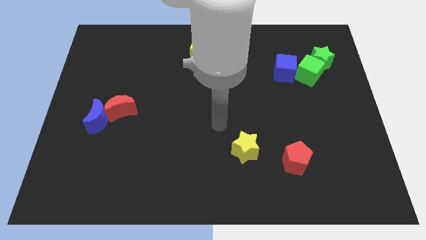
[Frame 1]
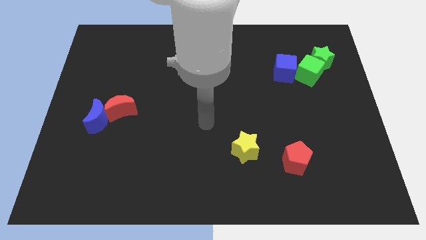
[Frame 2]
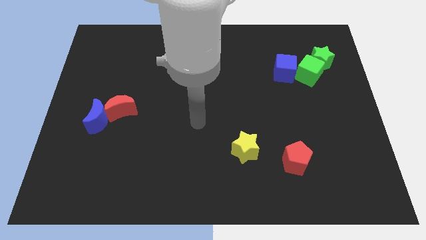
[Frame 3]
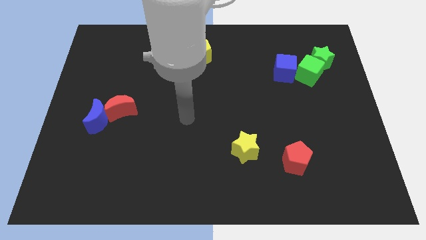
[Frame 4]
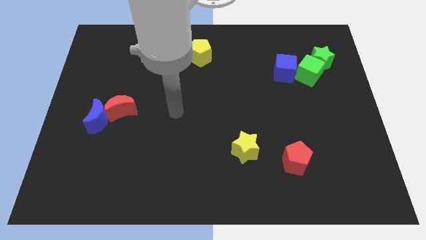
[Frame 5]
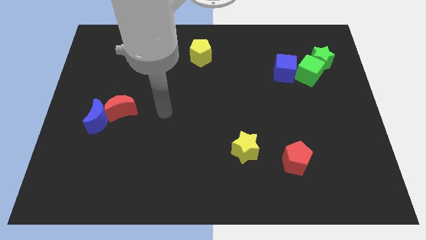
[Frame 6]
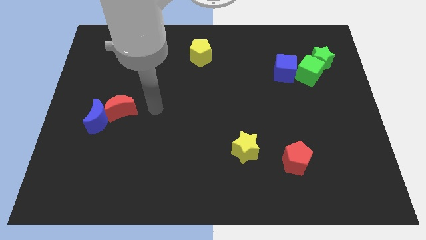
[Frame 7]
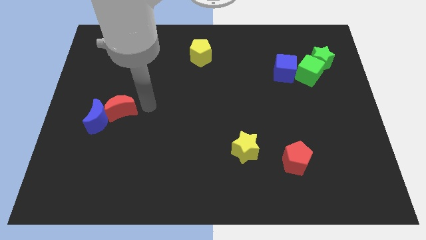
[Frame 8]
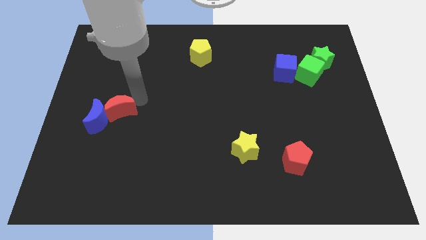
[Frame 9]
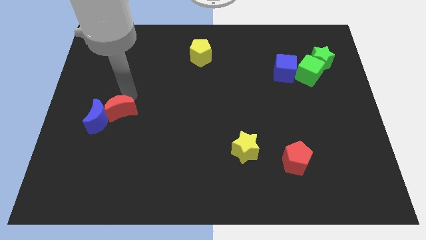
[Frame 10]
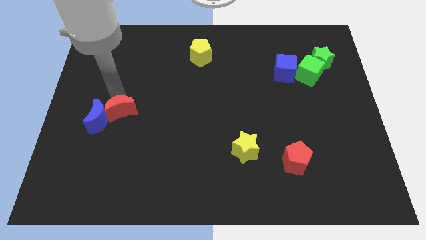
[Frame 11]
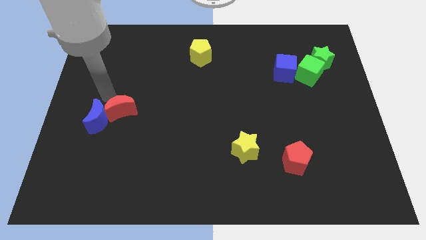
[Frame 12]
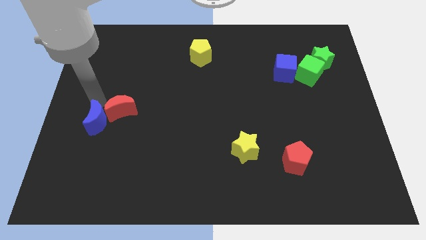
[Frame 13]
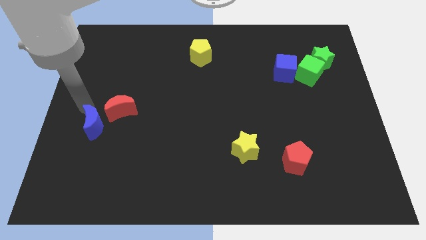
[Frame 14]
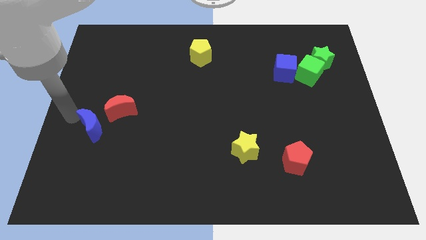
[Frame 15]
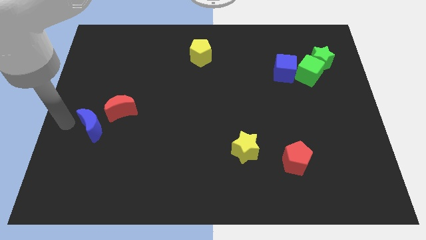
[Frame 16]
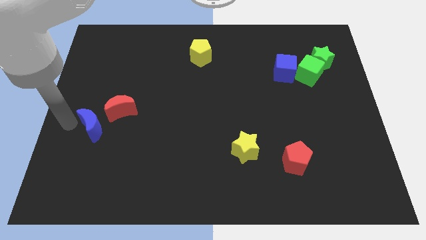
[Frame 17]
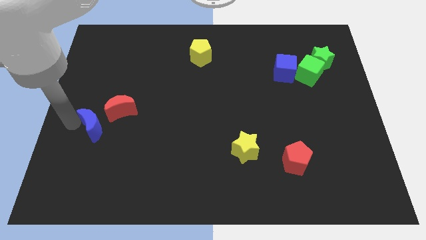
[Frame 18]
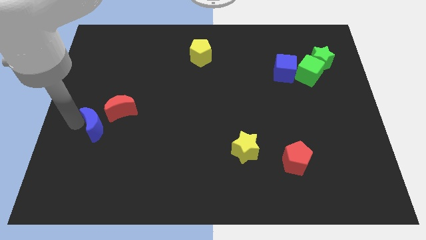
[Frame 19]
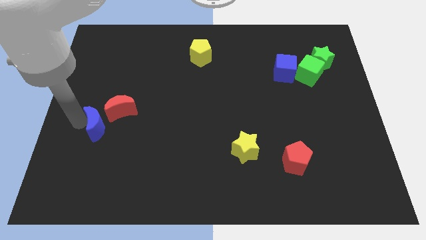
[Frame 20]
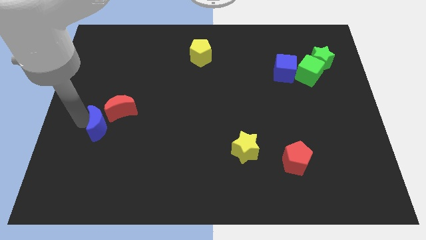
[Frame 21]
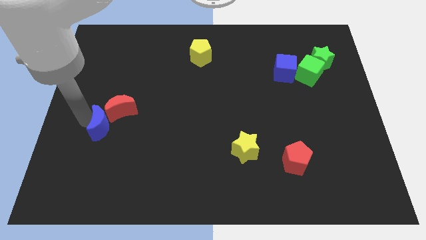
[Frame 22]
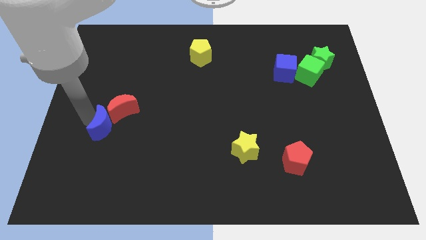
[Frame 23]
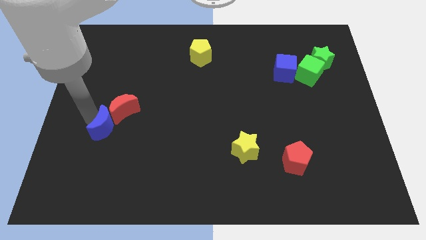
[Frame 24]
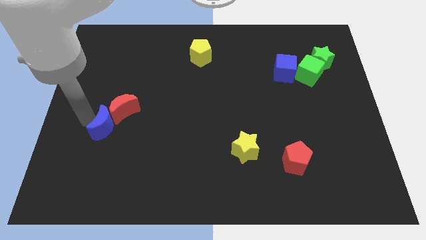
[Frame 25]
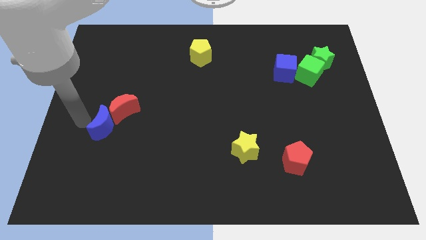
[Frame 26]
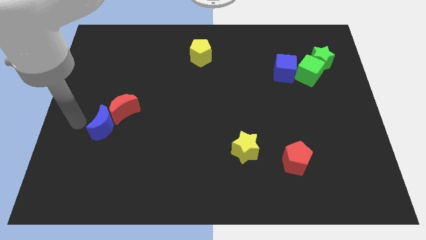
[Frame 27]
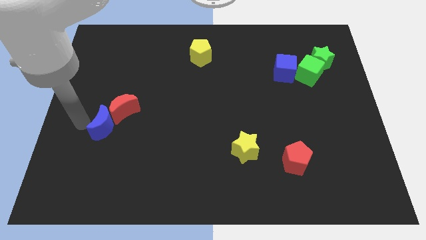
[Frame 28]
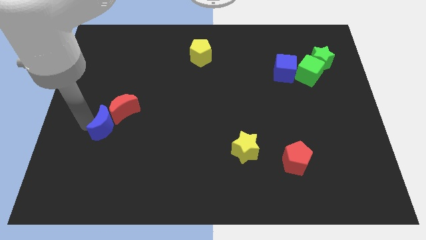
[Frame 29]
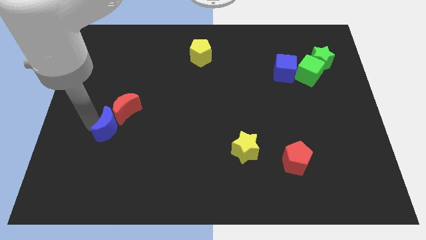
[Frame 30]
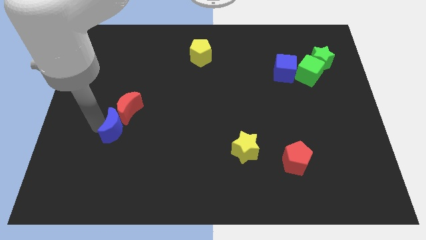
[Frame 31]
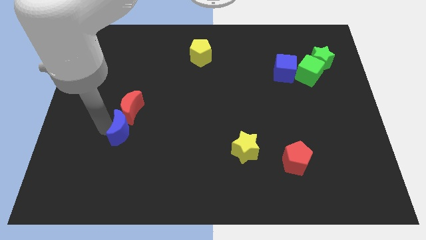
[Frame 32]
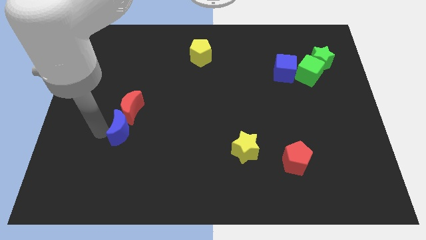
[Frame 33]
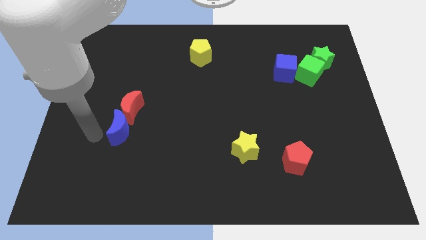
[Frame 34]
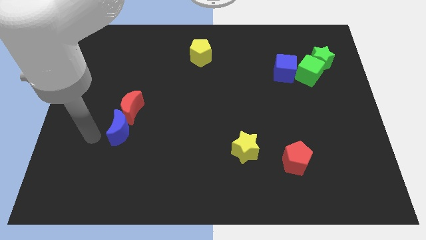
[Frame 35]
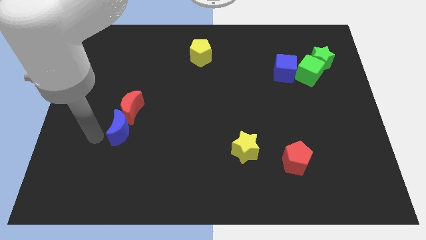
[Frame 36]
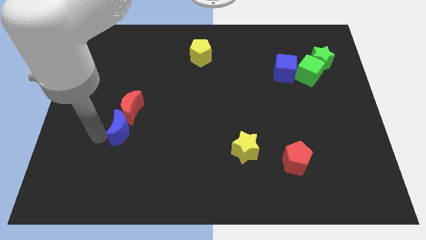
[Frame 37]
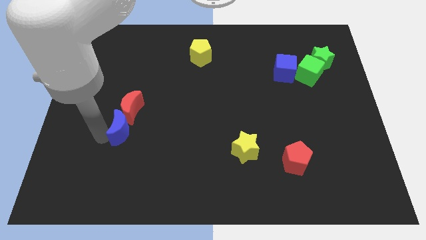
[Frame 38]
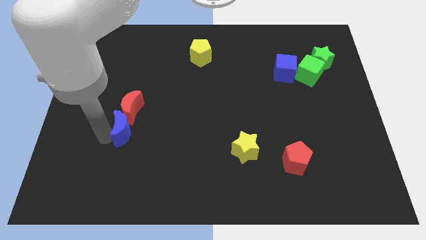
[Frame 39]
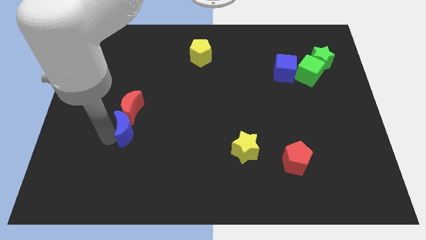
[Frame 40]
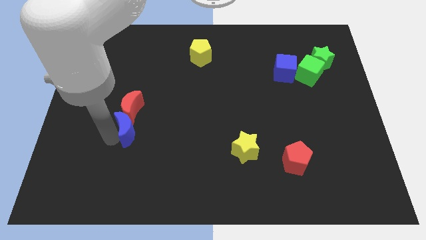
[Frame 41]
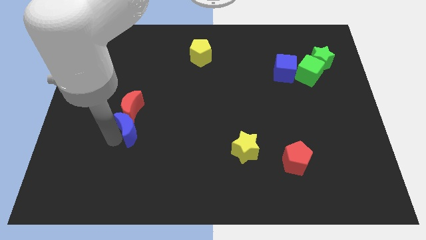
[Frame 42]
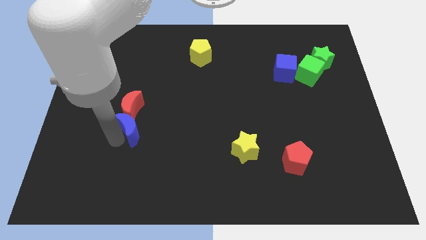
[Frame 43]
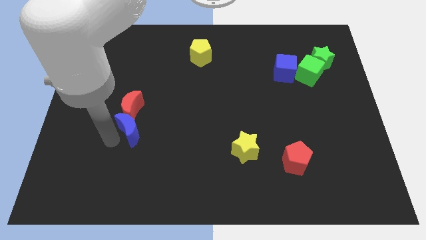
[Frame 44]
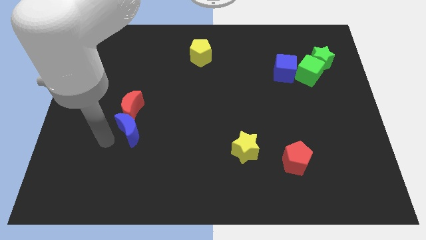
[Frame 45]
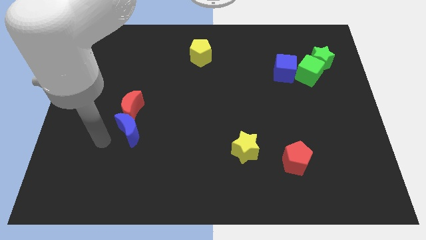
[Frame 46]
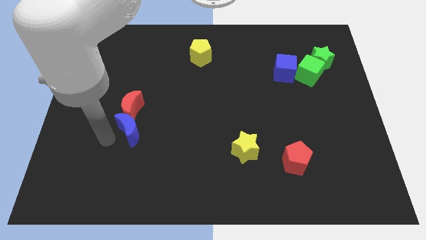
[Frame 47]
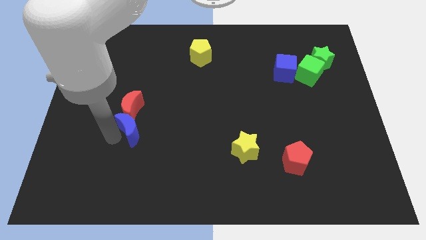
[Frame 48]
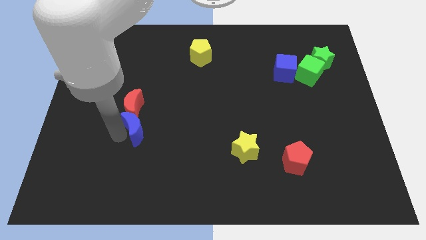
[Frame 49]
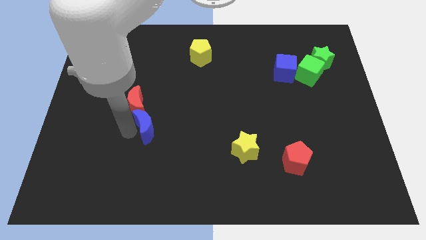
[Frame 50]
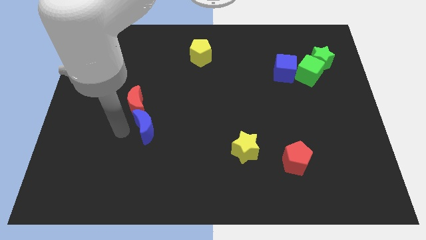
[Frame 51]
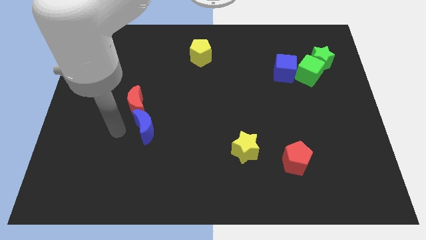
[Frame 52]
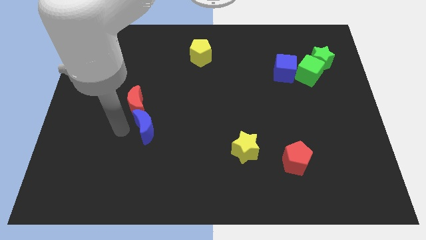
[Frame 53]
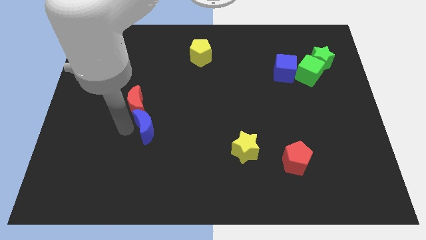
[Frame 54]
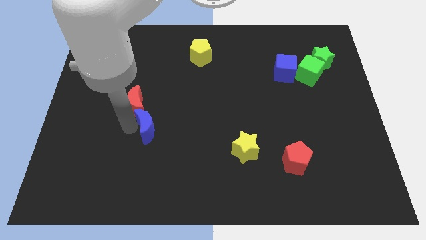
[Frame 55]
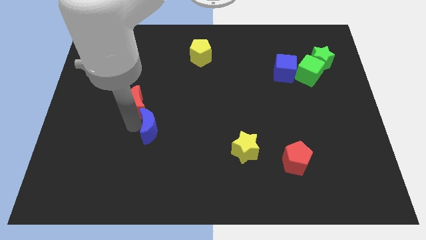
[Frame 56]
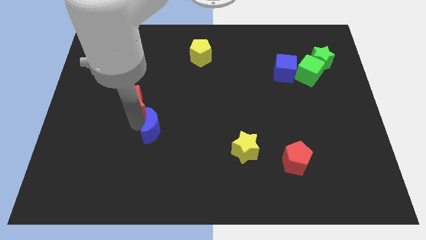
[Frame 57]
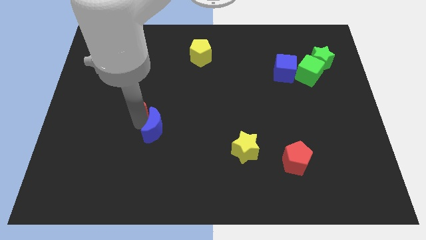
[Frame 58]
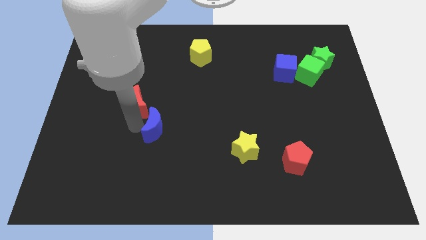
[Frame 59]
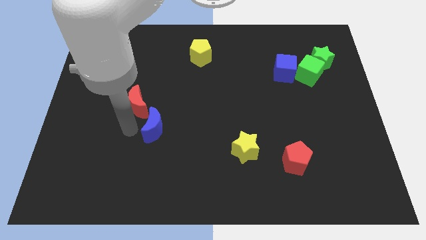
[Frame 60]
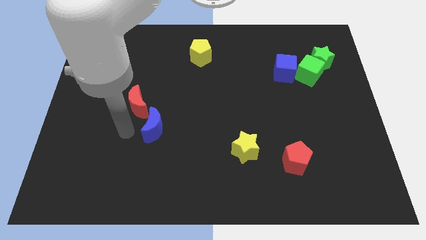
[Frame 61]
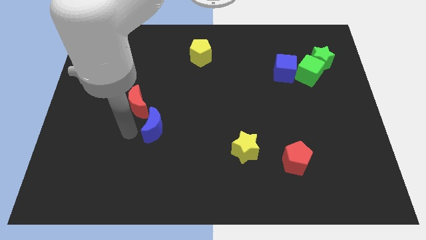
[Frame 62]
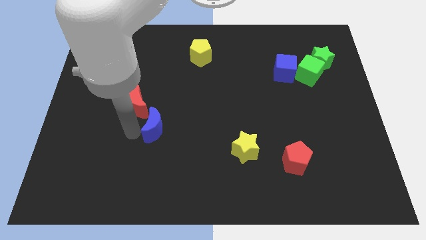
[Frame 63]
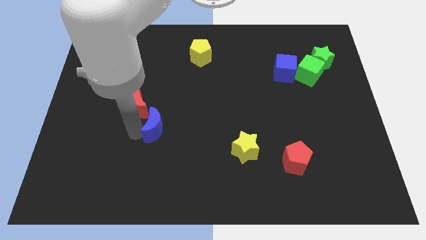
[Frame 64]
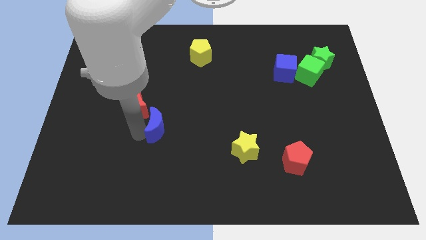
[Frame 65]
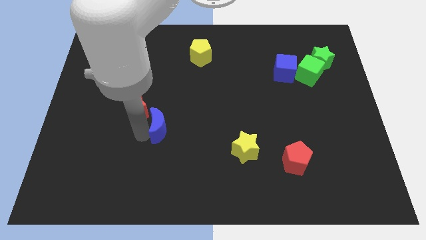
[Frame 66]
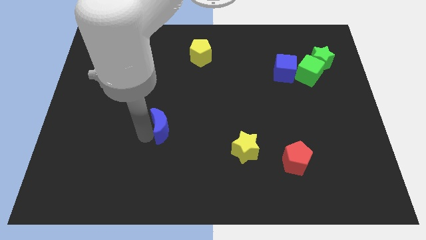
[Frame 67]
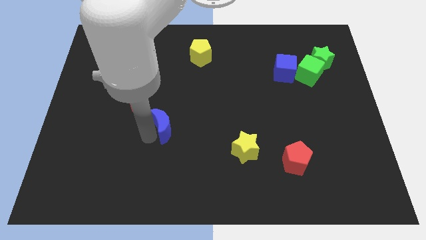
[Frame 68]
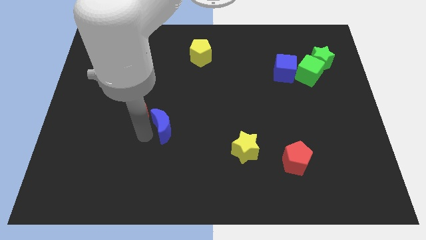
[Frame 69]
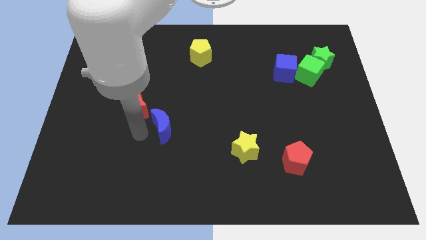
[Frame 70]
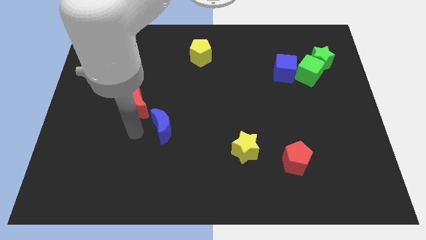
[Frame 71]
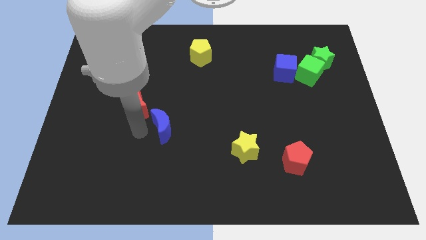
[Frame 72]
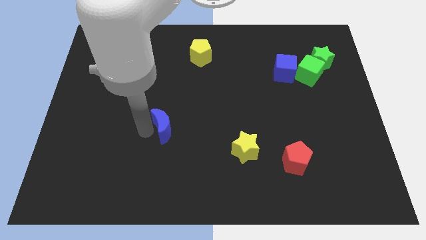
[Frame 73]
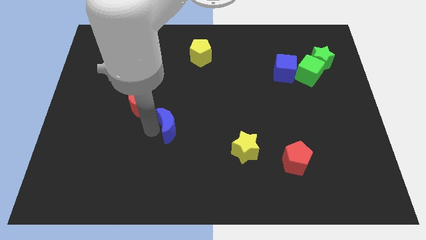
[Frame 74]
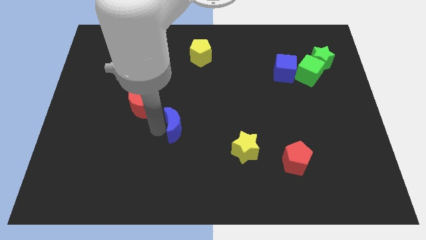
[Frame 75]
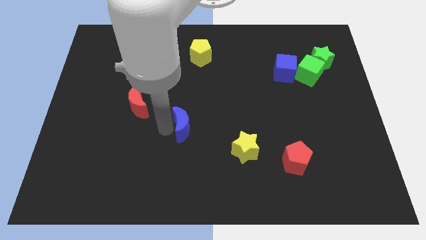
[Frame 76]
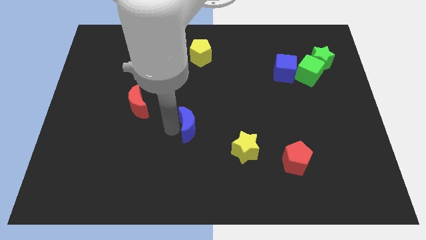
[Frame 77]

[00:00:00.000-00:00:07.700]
push the blue moon to the right

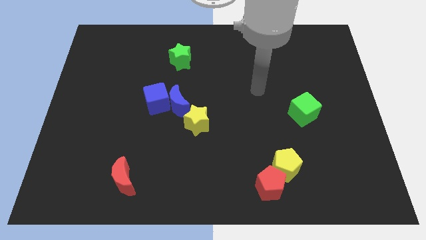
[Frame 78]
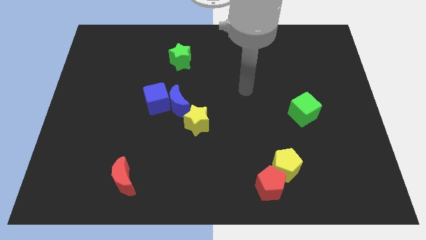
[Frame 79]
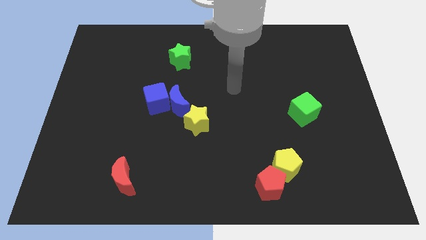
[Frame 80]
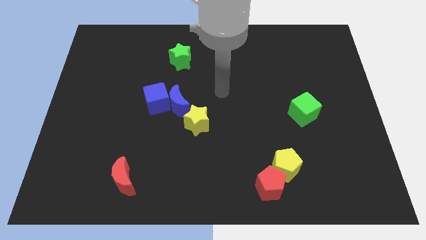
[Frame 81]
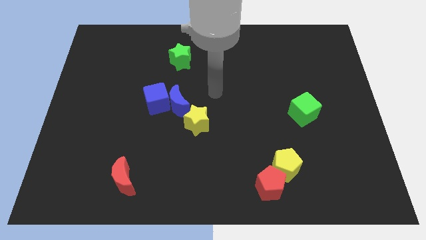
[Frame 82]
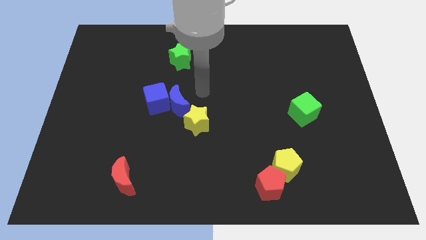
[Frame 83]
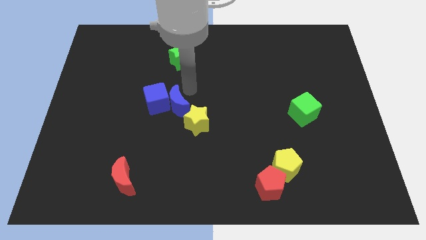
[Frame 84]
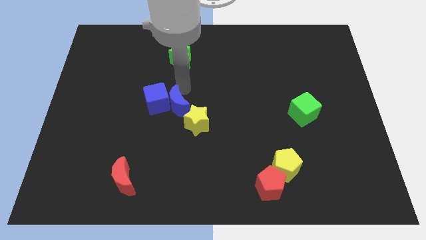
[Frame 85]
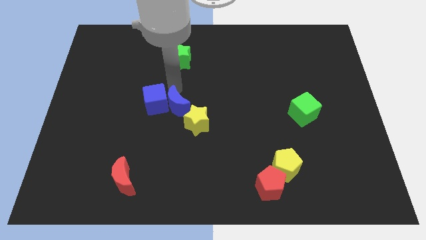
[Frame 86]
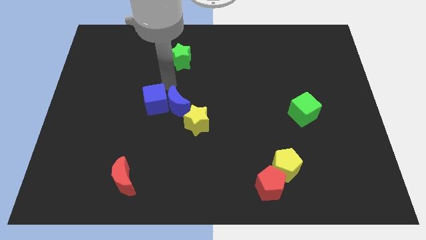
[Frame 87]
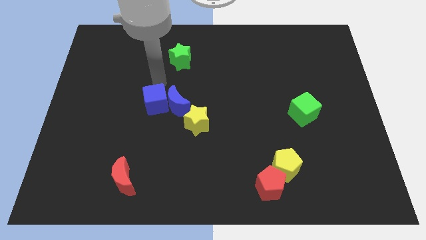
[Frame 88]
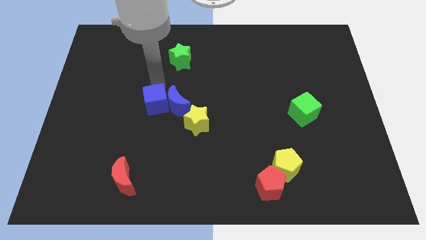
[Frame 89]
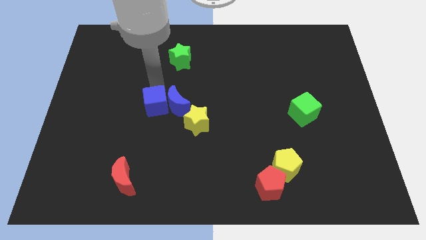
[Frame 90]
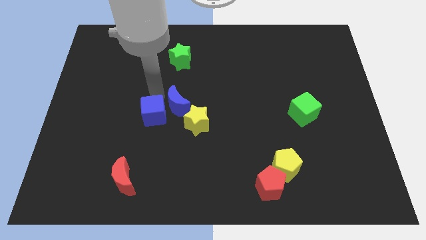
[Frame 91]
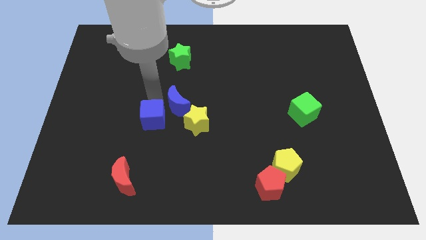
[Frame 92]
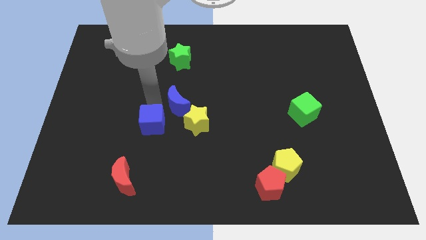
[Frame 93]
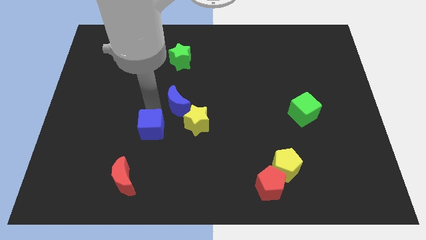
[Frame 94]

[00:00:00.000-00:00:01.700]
push the blue cube down slightly
